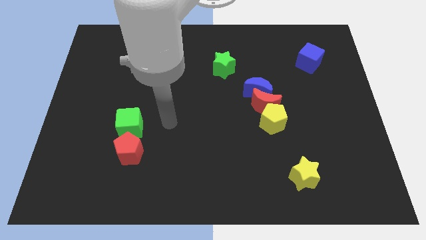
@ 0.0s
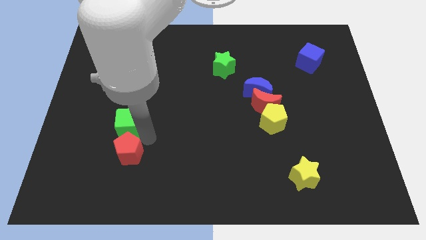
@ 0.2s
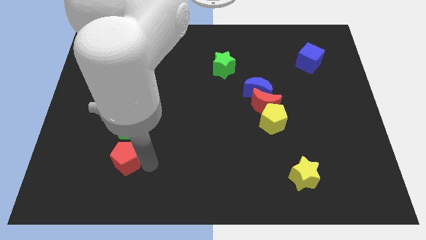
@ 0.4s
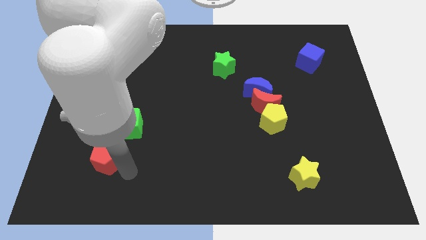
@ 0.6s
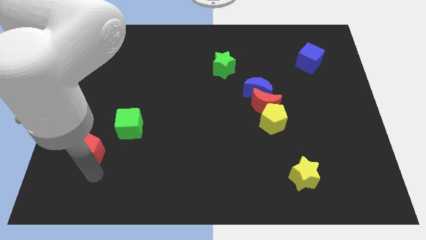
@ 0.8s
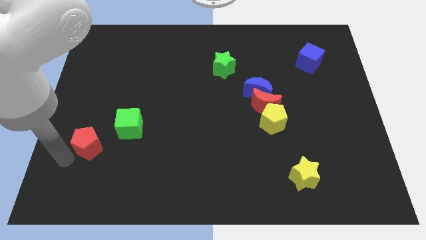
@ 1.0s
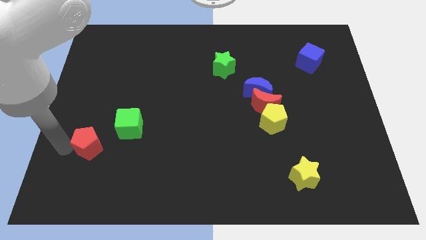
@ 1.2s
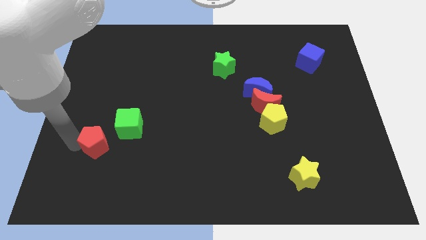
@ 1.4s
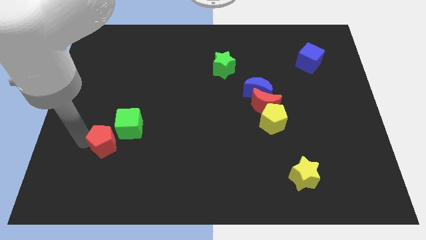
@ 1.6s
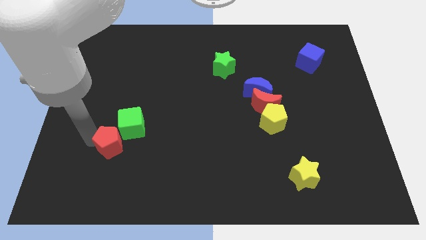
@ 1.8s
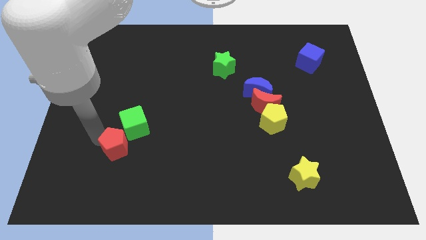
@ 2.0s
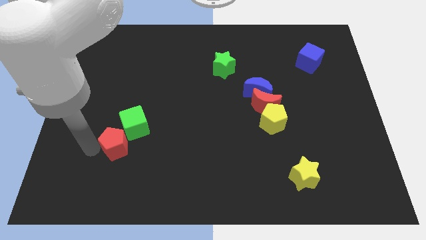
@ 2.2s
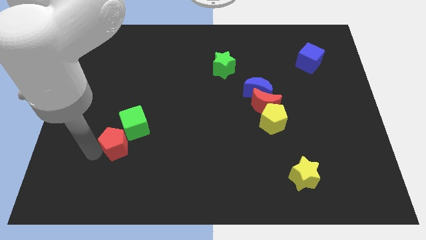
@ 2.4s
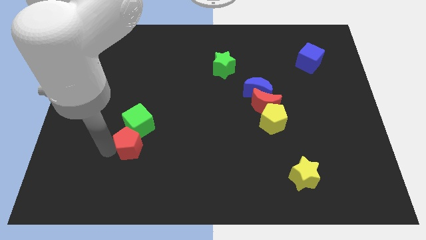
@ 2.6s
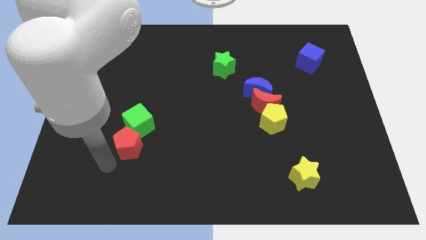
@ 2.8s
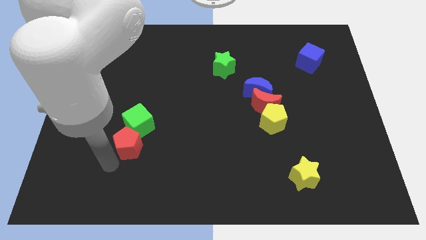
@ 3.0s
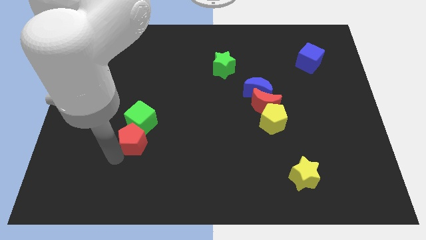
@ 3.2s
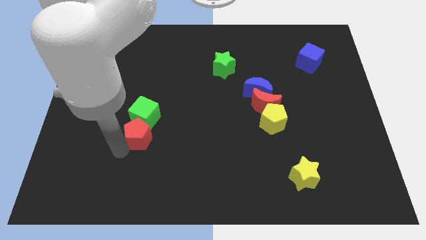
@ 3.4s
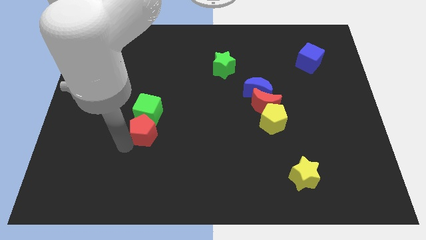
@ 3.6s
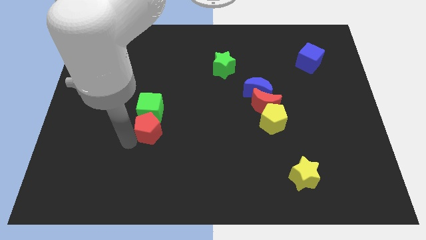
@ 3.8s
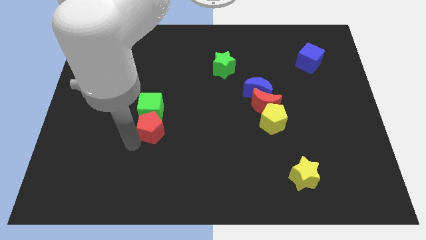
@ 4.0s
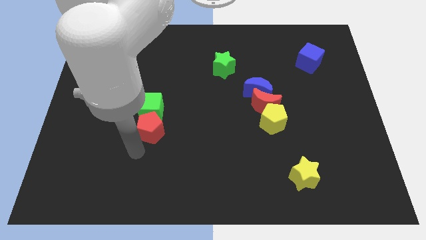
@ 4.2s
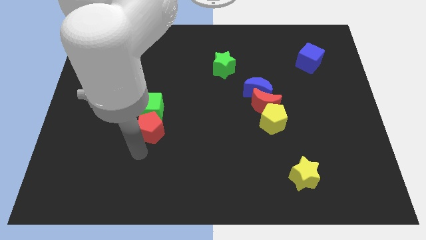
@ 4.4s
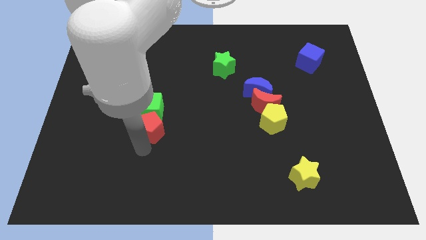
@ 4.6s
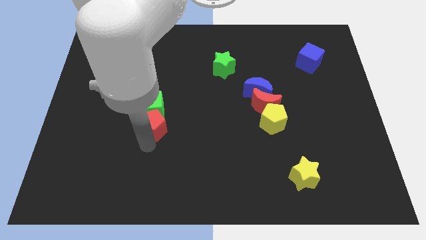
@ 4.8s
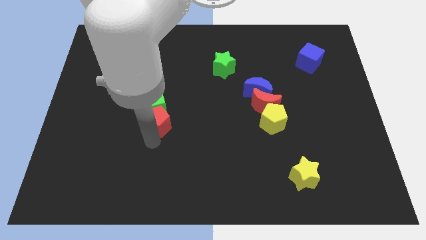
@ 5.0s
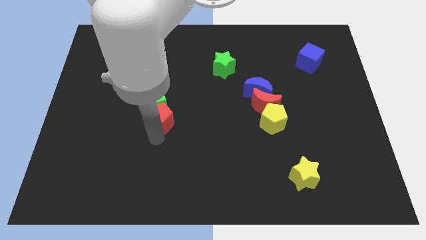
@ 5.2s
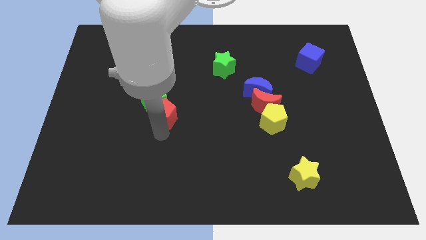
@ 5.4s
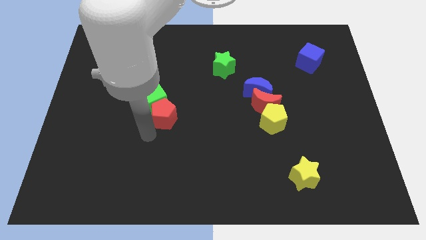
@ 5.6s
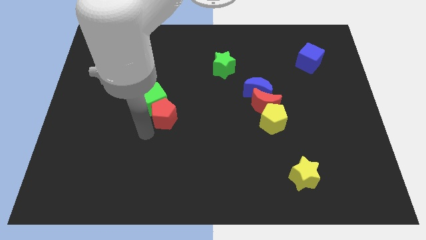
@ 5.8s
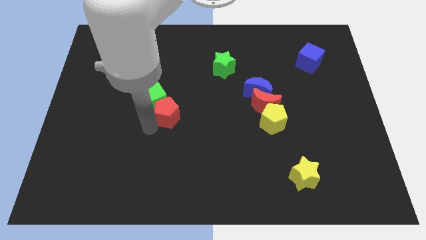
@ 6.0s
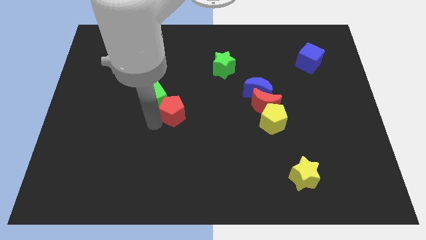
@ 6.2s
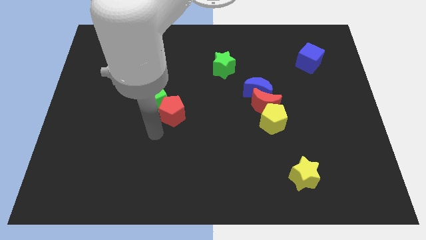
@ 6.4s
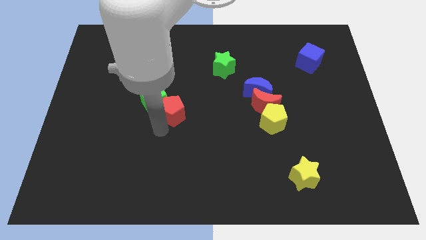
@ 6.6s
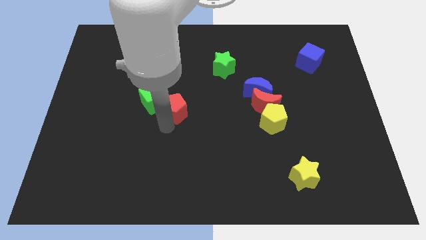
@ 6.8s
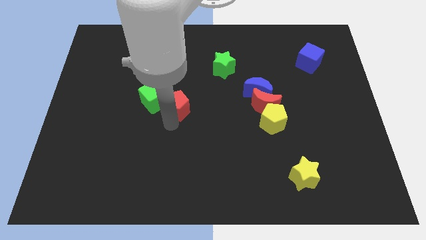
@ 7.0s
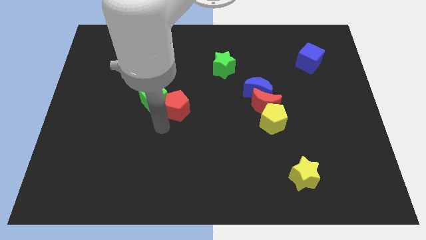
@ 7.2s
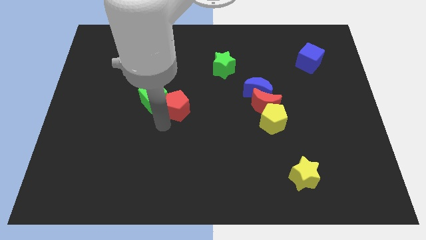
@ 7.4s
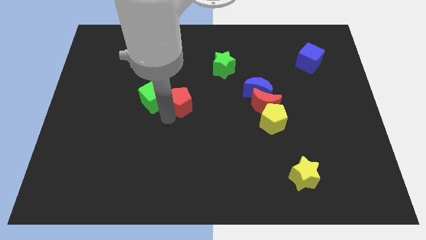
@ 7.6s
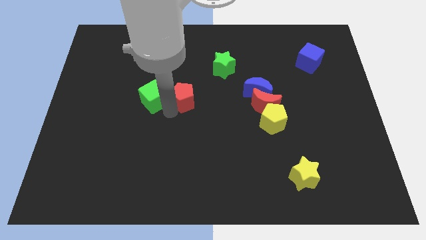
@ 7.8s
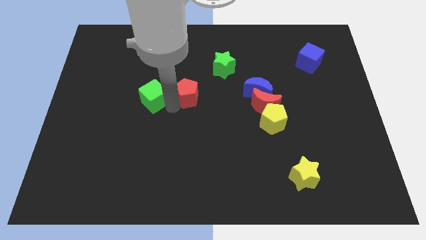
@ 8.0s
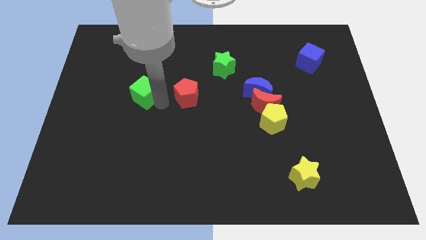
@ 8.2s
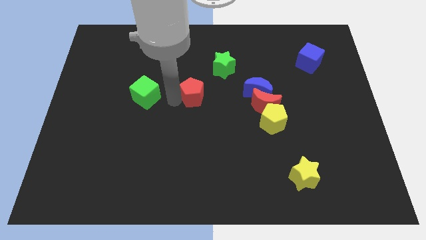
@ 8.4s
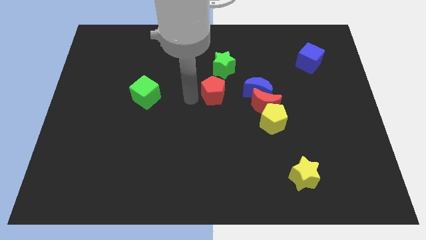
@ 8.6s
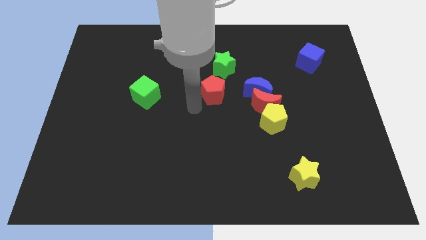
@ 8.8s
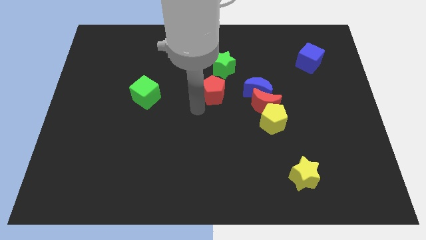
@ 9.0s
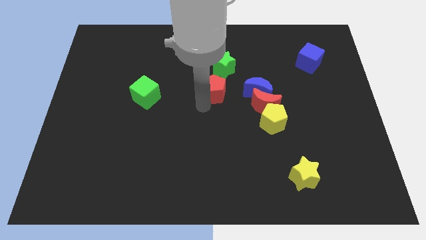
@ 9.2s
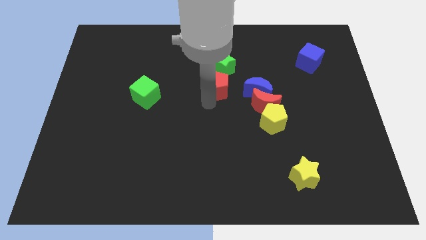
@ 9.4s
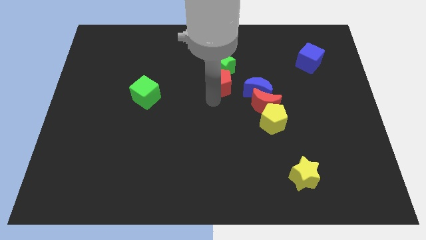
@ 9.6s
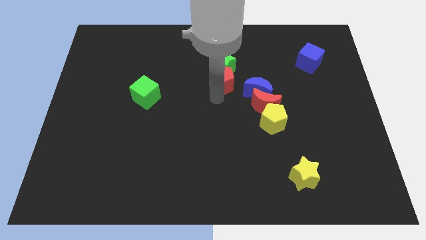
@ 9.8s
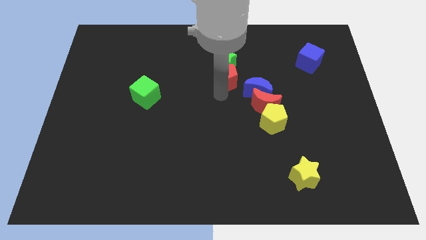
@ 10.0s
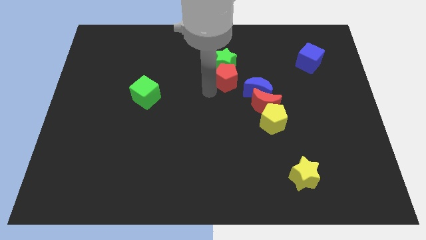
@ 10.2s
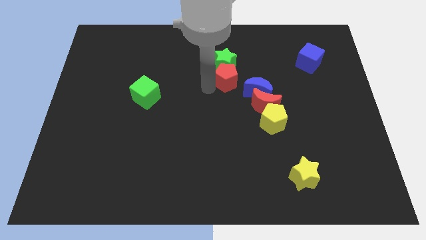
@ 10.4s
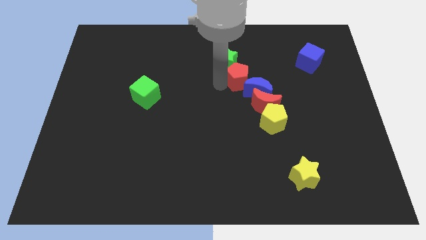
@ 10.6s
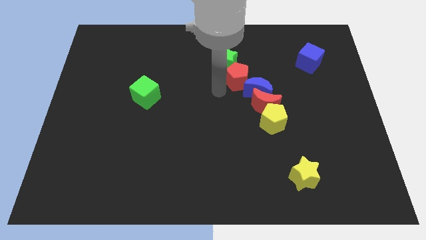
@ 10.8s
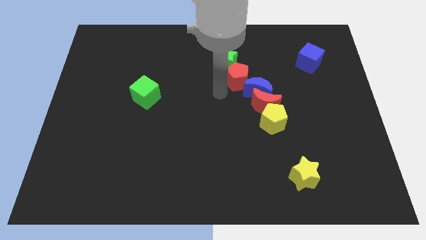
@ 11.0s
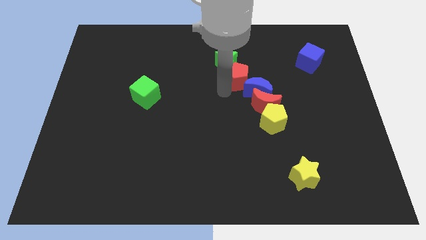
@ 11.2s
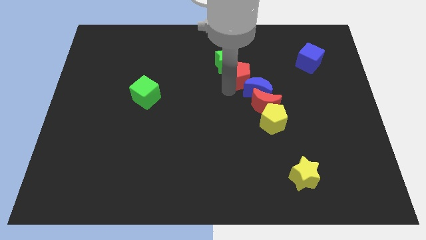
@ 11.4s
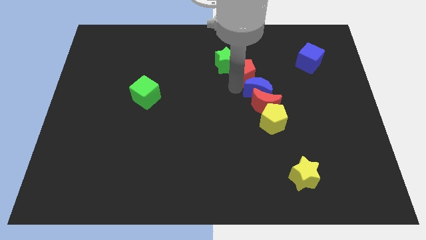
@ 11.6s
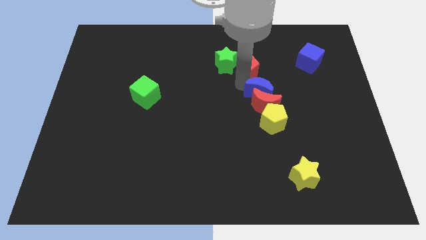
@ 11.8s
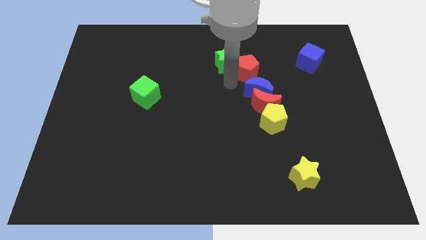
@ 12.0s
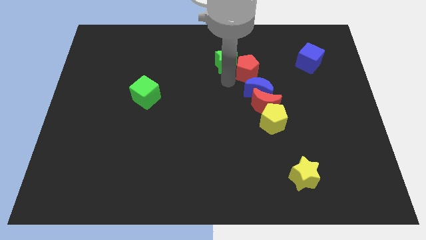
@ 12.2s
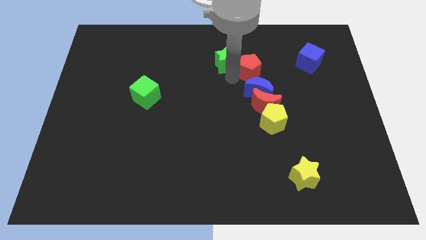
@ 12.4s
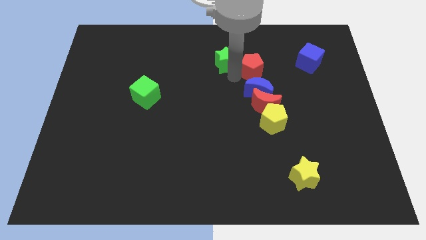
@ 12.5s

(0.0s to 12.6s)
move the red pentagon just left of the blue cube

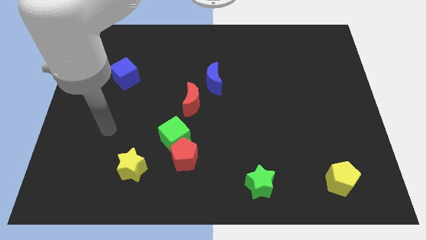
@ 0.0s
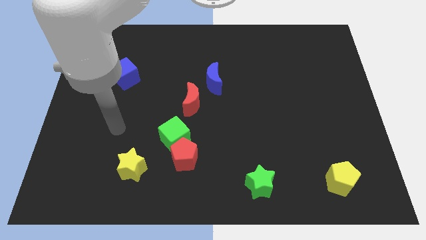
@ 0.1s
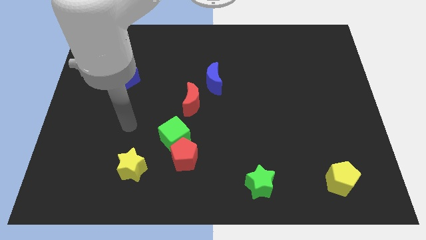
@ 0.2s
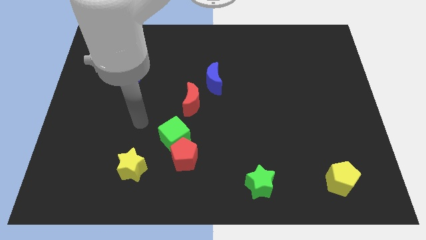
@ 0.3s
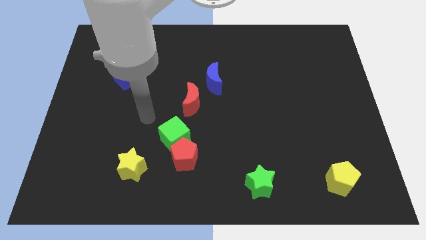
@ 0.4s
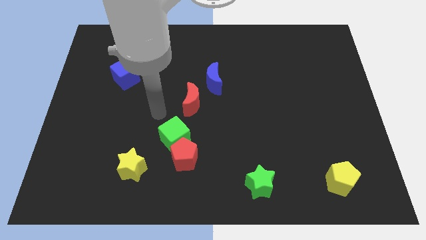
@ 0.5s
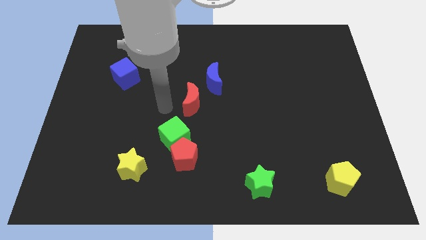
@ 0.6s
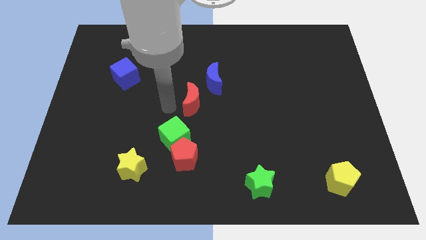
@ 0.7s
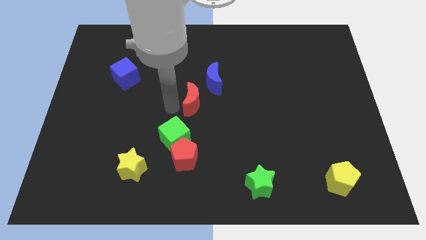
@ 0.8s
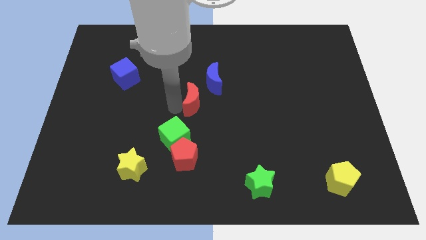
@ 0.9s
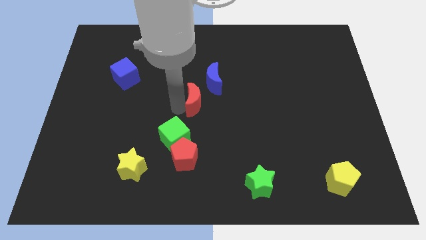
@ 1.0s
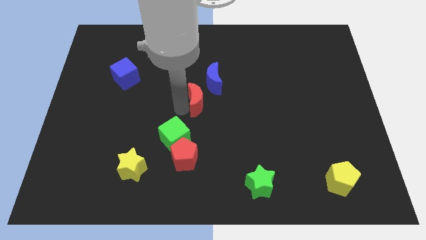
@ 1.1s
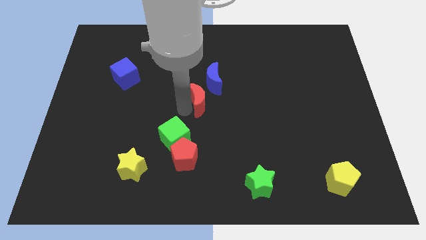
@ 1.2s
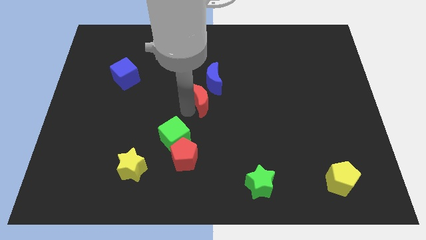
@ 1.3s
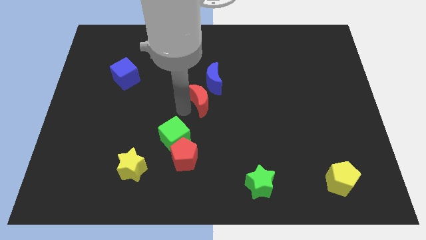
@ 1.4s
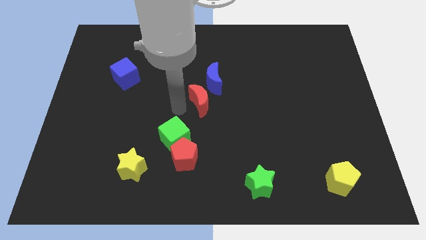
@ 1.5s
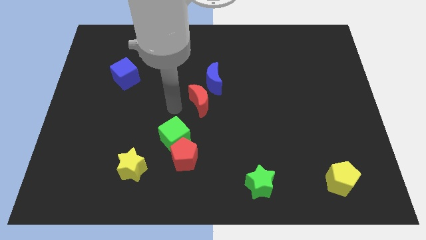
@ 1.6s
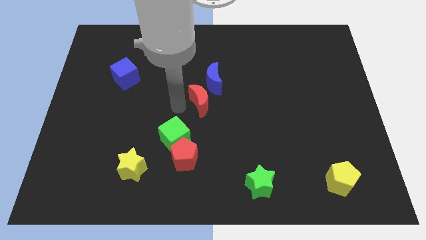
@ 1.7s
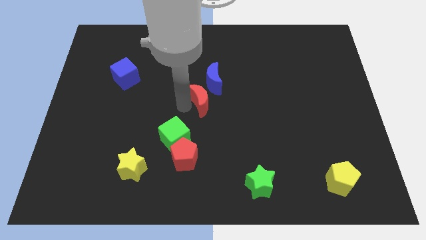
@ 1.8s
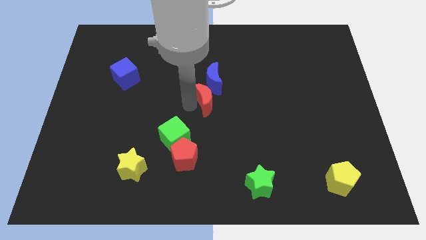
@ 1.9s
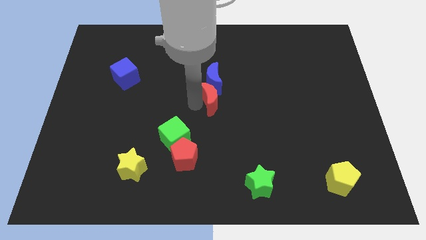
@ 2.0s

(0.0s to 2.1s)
push the red moon diagonally down and to the right of the blue moon
